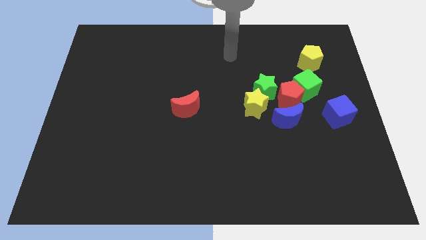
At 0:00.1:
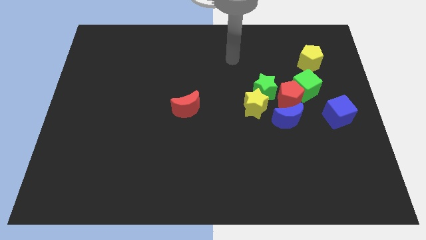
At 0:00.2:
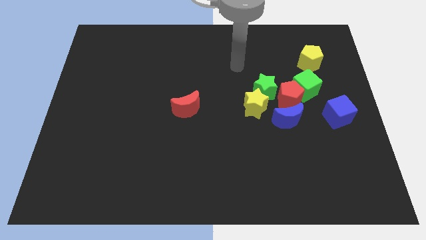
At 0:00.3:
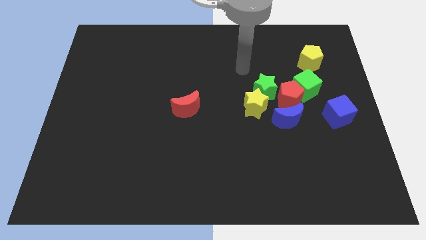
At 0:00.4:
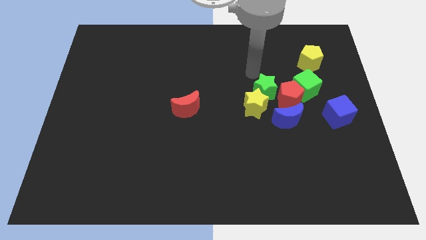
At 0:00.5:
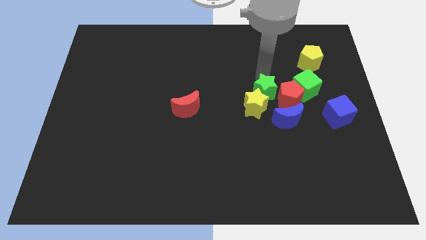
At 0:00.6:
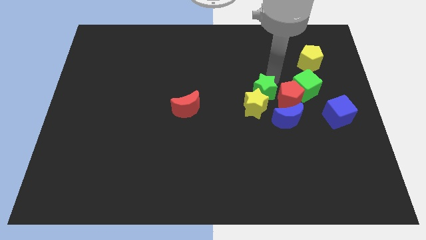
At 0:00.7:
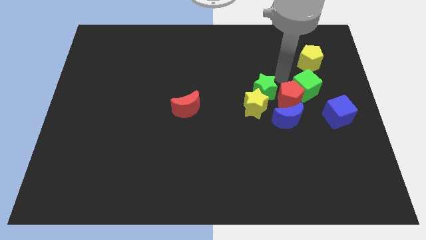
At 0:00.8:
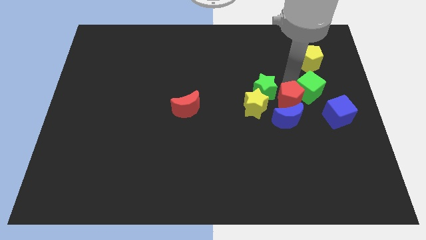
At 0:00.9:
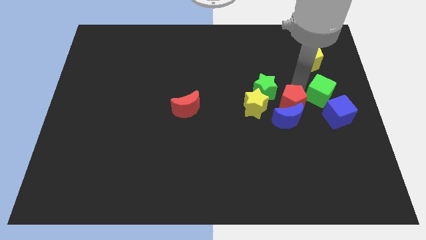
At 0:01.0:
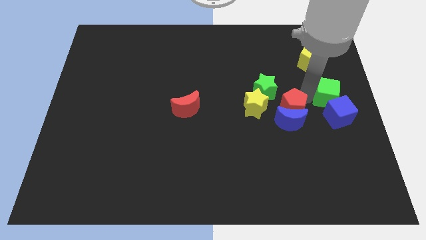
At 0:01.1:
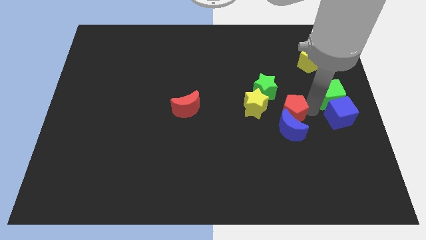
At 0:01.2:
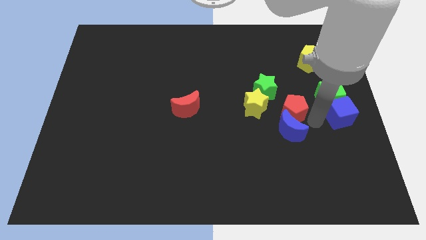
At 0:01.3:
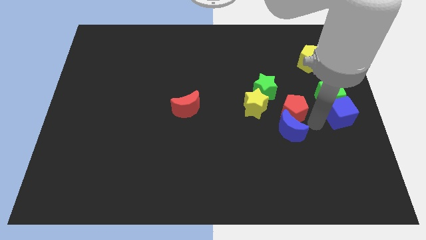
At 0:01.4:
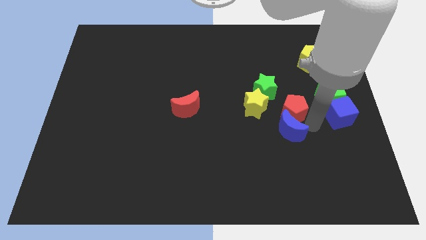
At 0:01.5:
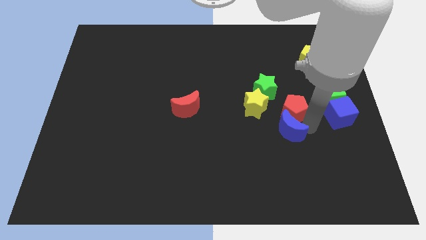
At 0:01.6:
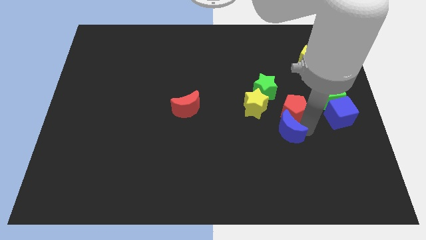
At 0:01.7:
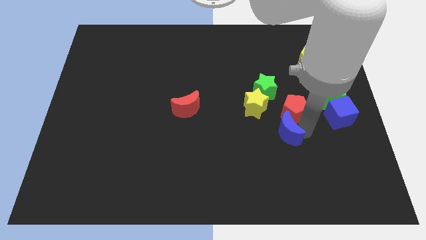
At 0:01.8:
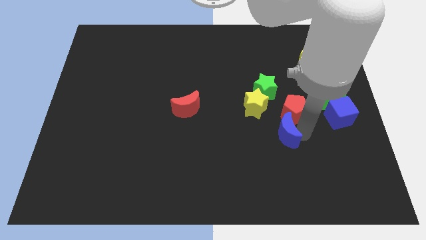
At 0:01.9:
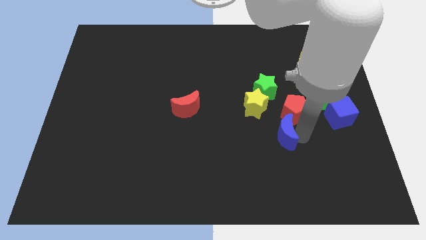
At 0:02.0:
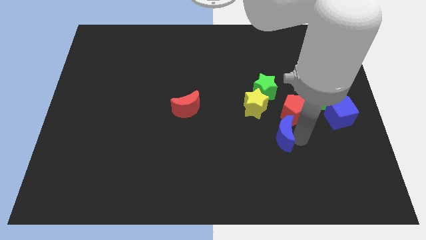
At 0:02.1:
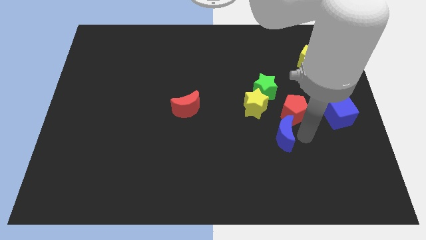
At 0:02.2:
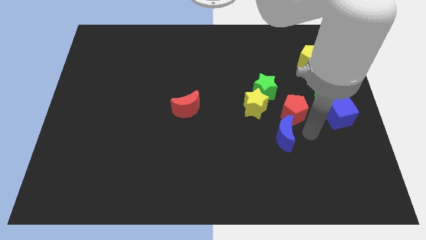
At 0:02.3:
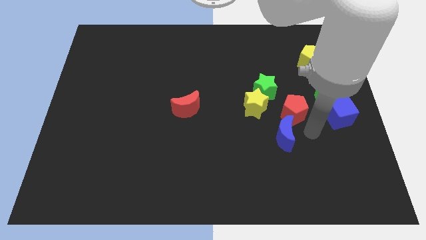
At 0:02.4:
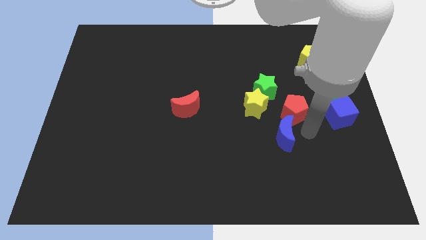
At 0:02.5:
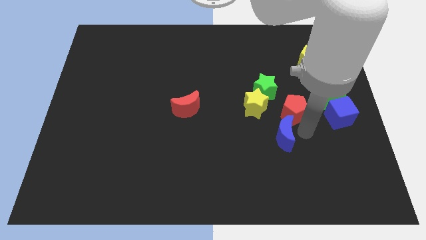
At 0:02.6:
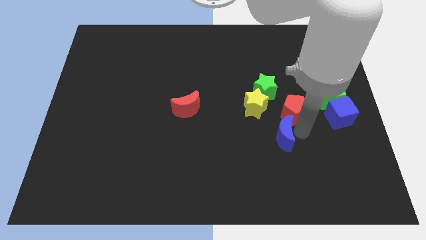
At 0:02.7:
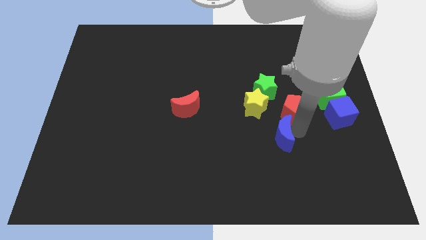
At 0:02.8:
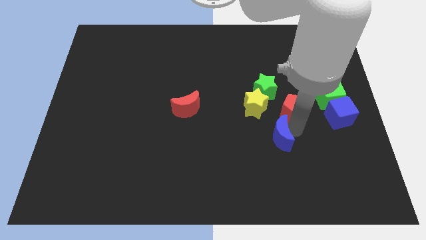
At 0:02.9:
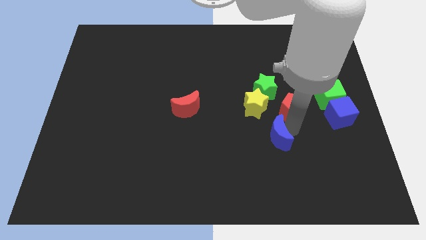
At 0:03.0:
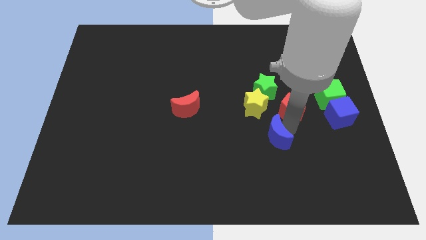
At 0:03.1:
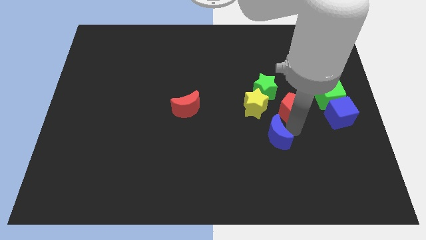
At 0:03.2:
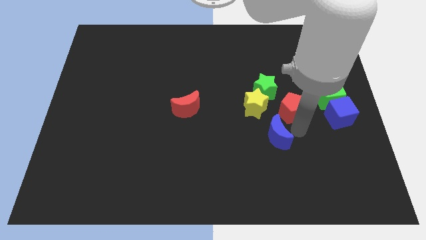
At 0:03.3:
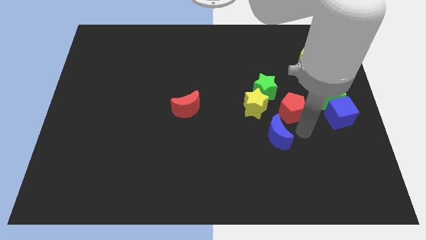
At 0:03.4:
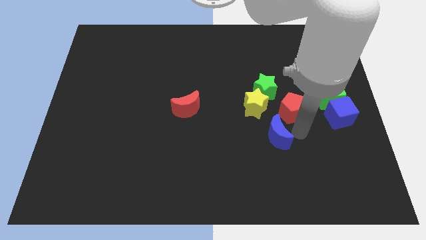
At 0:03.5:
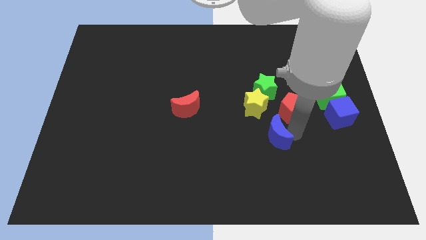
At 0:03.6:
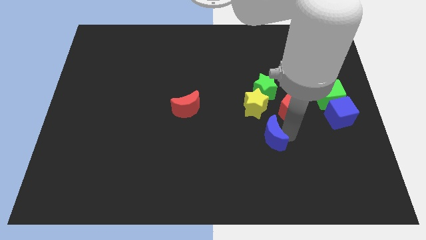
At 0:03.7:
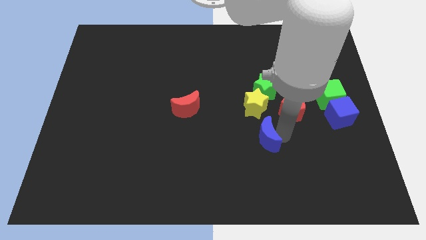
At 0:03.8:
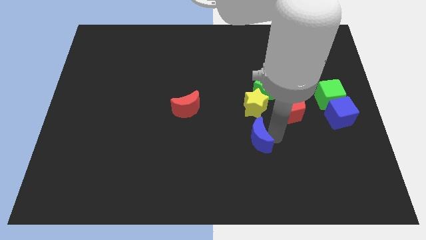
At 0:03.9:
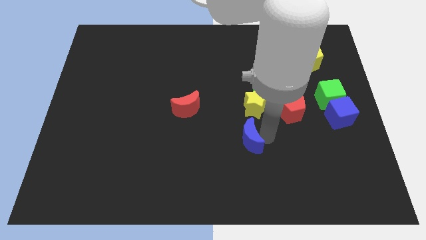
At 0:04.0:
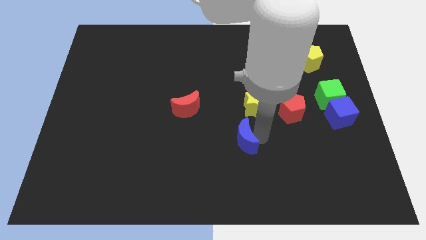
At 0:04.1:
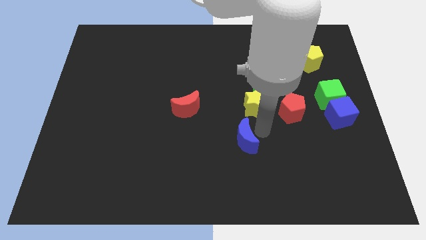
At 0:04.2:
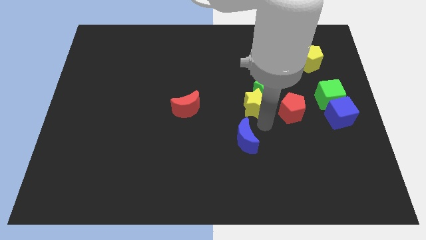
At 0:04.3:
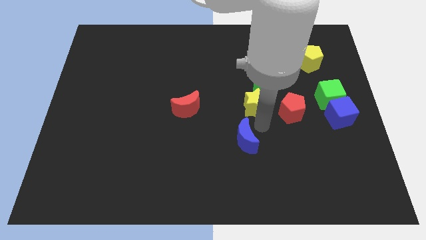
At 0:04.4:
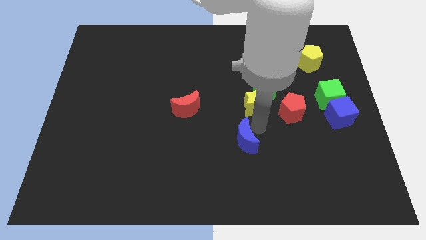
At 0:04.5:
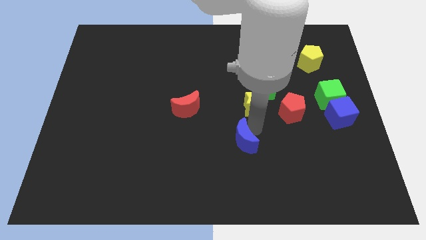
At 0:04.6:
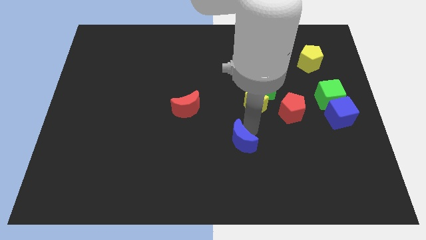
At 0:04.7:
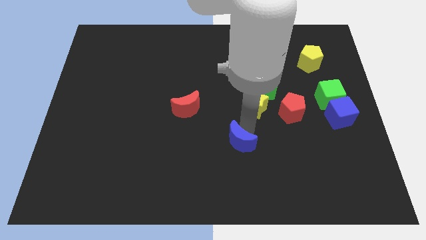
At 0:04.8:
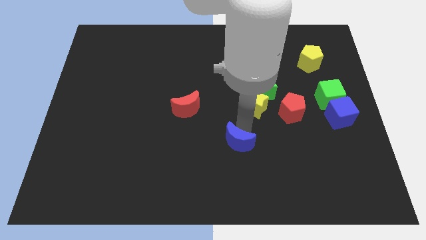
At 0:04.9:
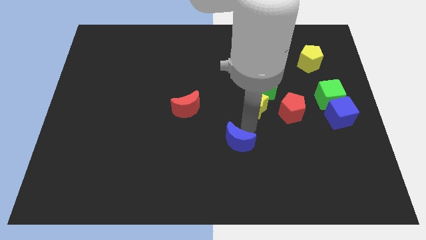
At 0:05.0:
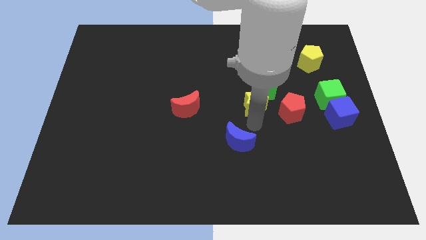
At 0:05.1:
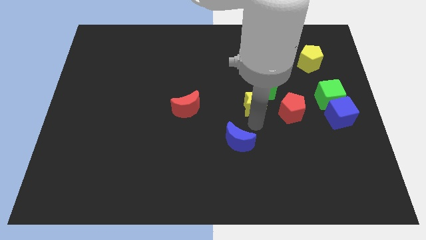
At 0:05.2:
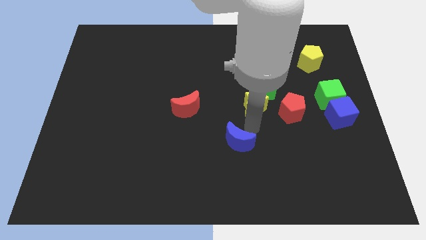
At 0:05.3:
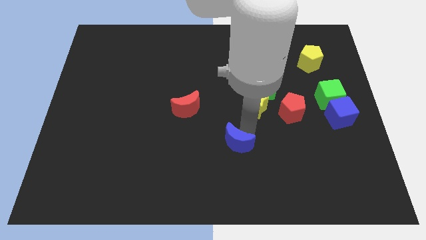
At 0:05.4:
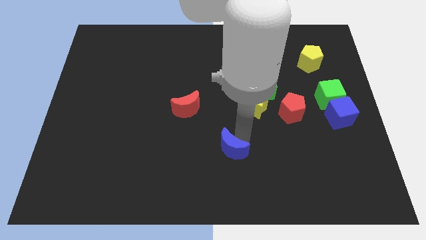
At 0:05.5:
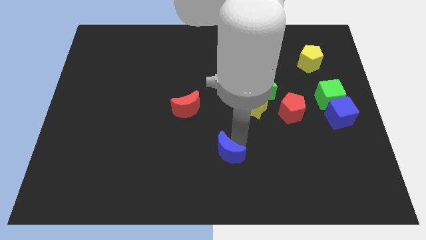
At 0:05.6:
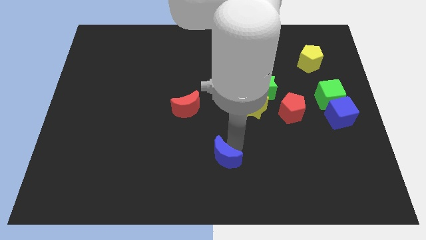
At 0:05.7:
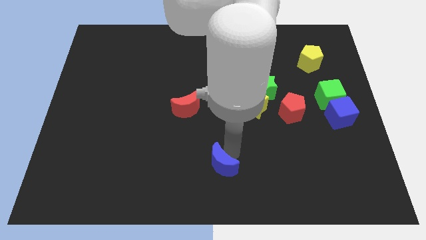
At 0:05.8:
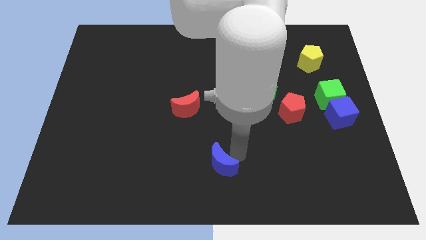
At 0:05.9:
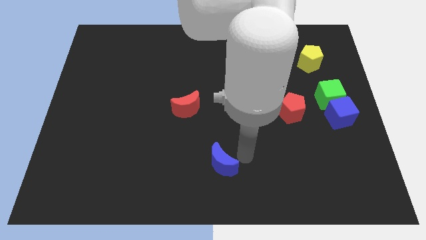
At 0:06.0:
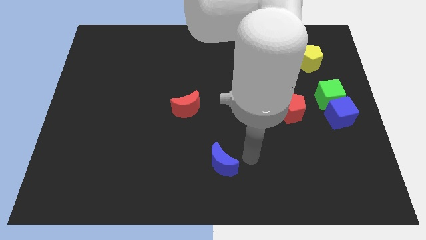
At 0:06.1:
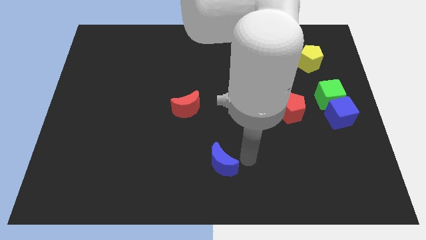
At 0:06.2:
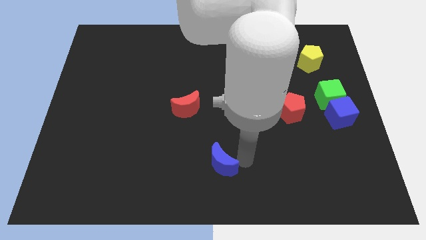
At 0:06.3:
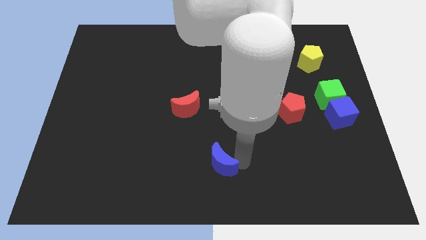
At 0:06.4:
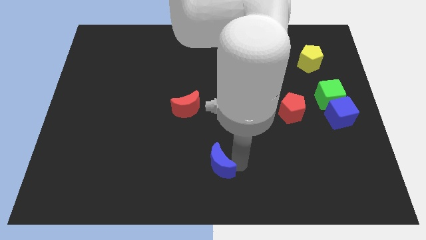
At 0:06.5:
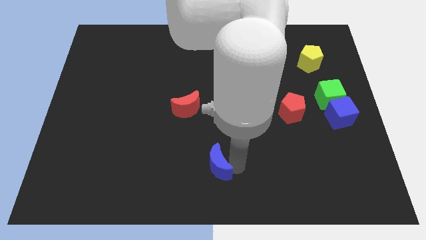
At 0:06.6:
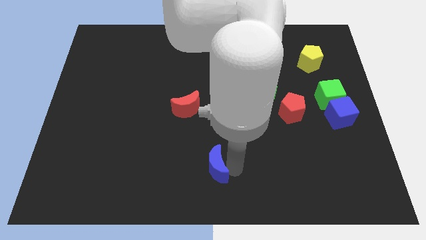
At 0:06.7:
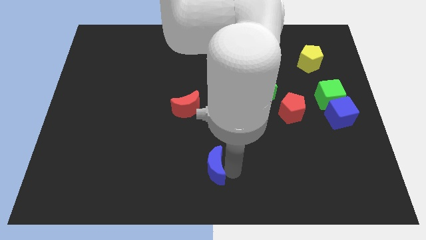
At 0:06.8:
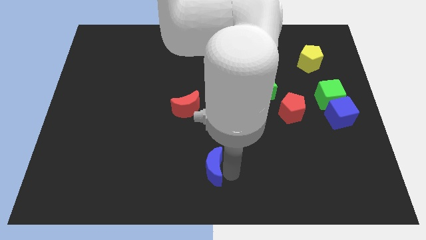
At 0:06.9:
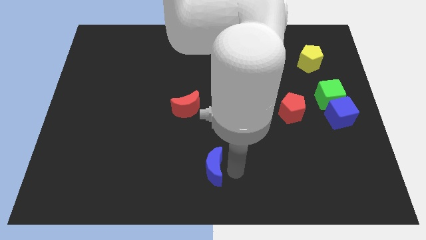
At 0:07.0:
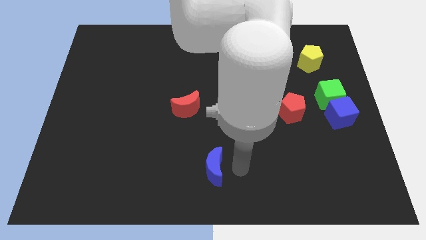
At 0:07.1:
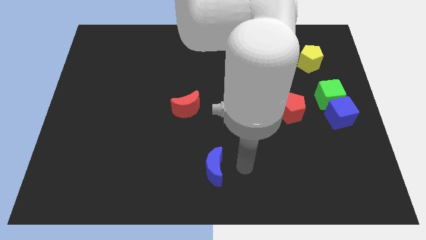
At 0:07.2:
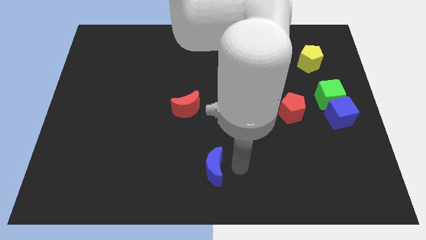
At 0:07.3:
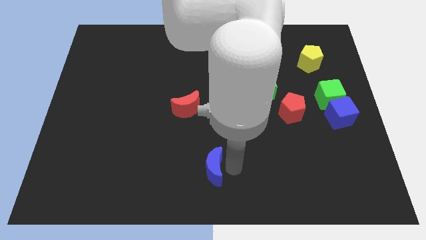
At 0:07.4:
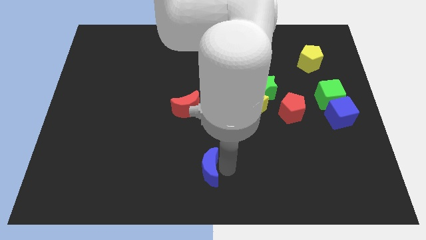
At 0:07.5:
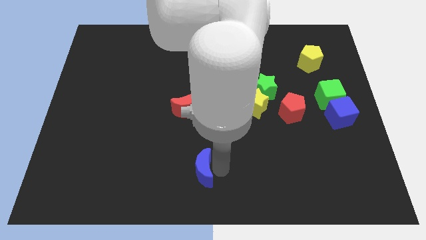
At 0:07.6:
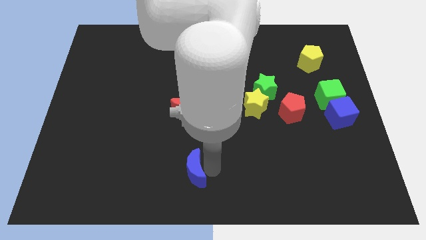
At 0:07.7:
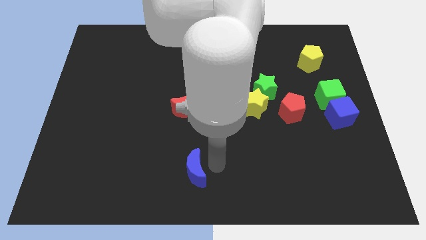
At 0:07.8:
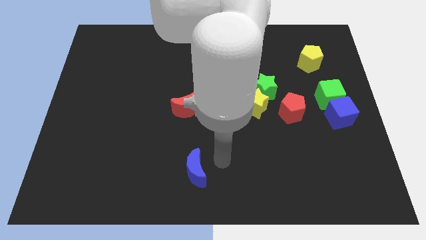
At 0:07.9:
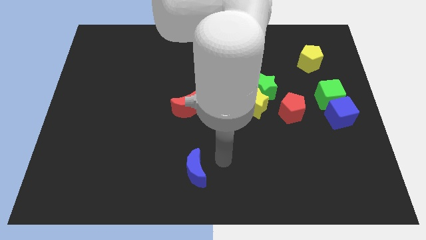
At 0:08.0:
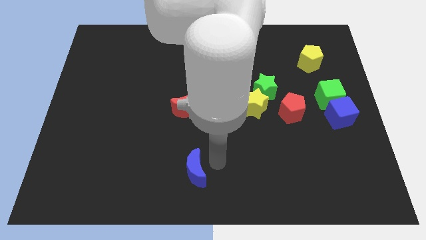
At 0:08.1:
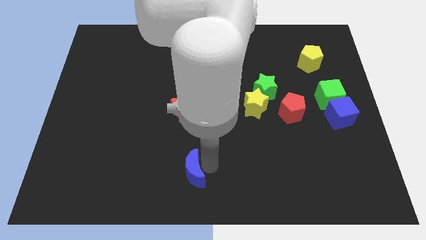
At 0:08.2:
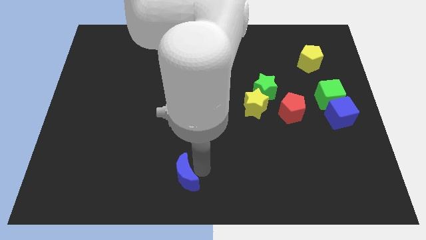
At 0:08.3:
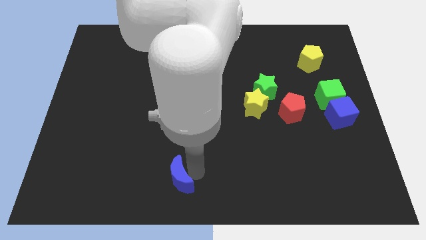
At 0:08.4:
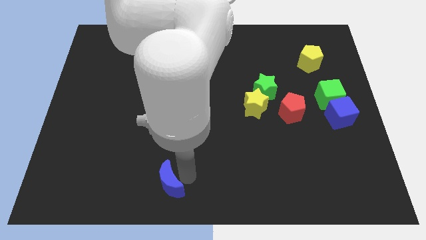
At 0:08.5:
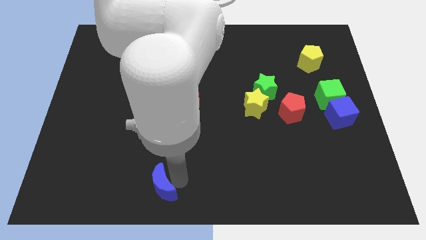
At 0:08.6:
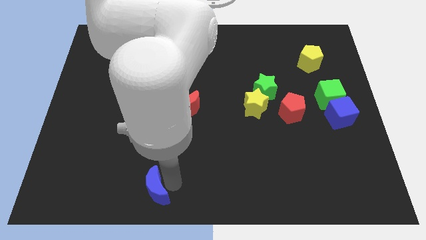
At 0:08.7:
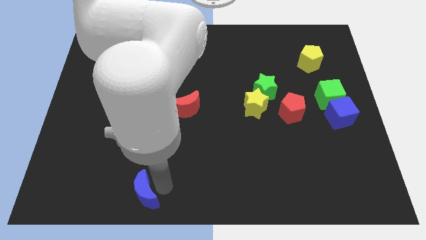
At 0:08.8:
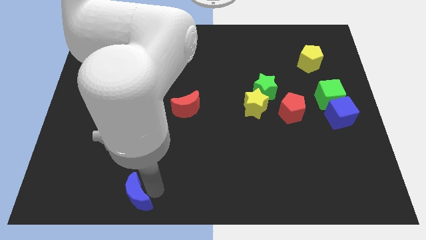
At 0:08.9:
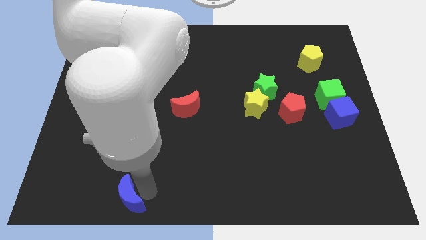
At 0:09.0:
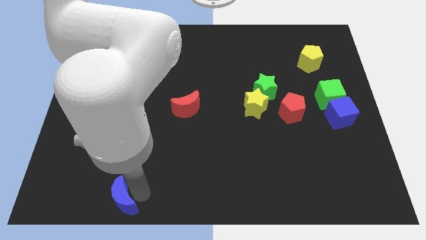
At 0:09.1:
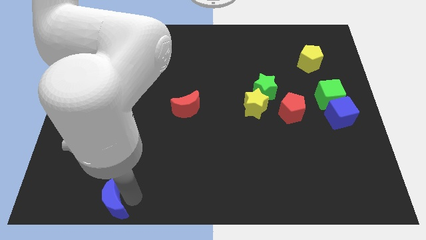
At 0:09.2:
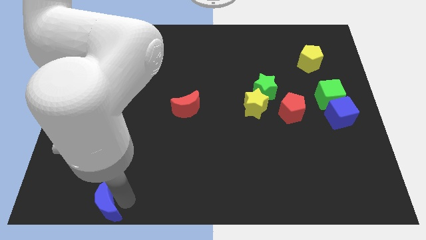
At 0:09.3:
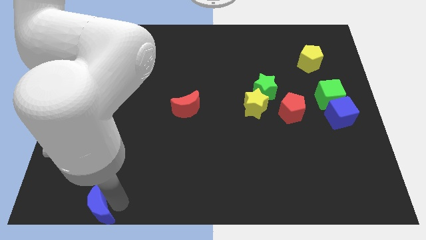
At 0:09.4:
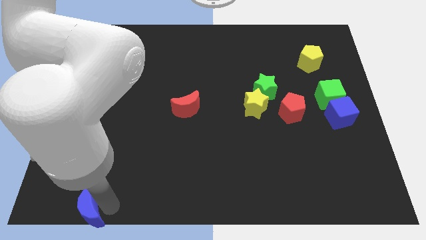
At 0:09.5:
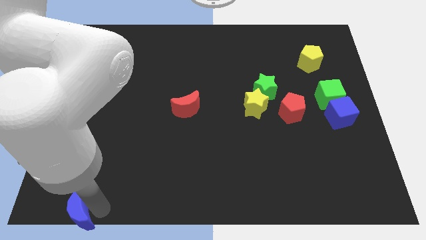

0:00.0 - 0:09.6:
move the blue moon to the bottom left of the board
